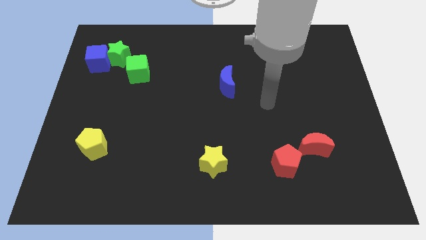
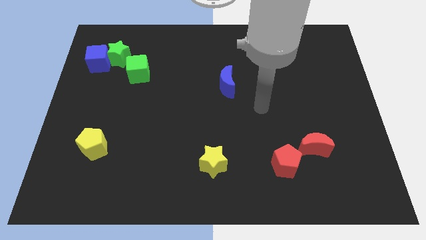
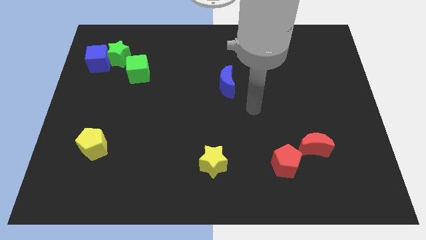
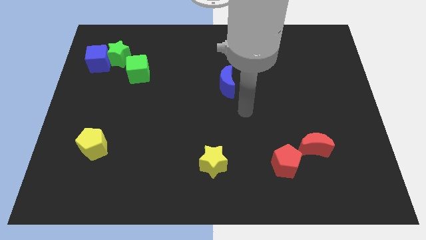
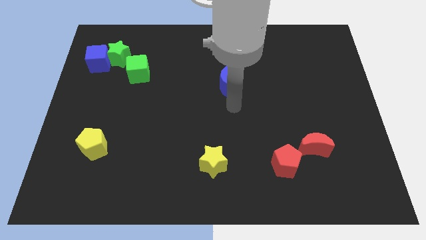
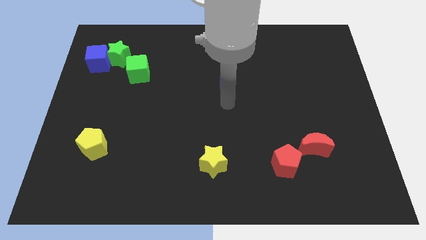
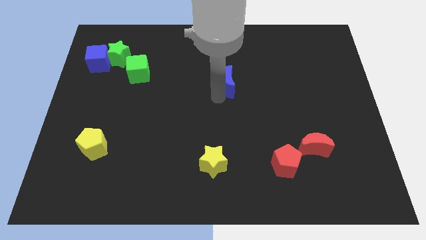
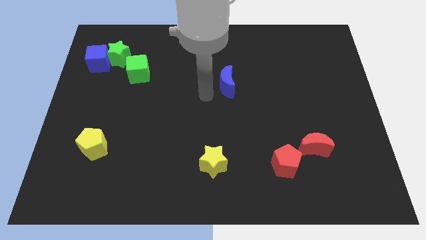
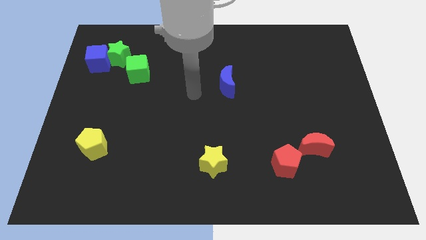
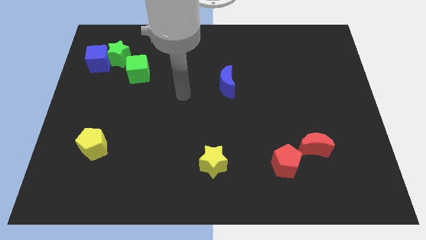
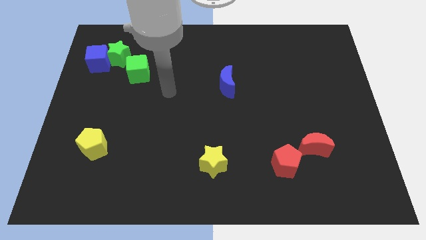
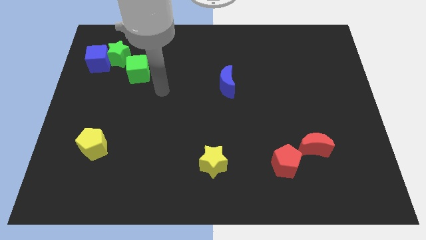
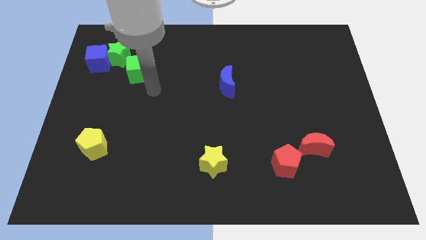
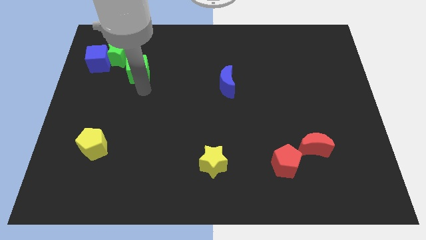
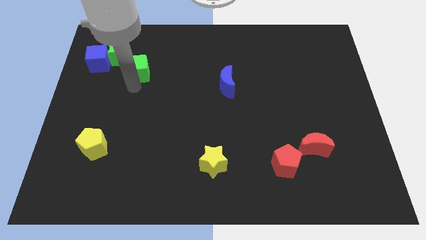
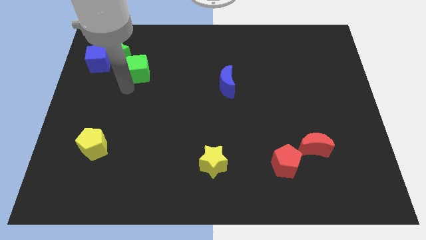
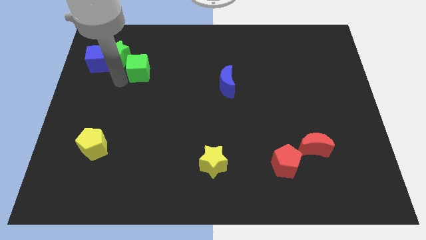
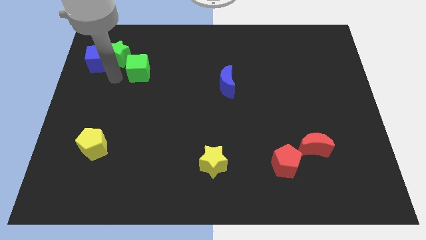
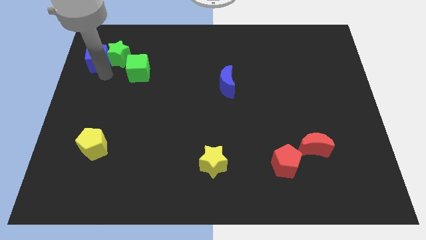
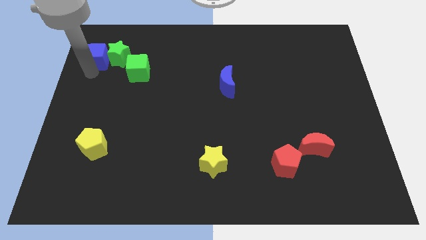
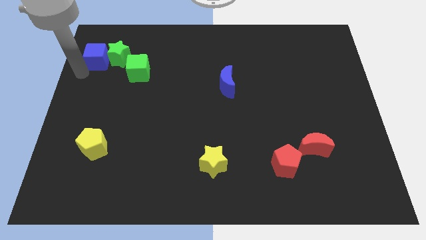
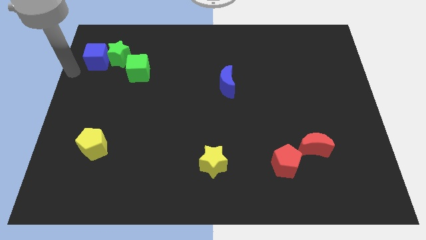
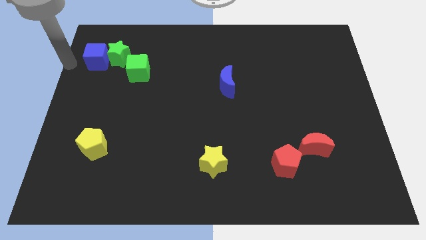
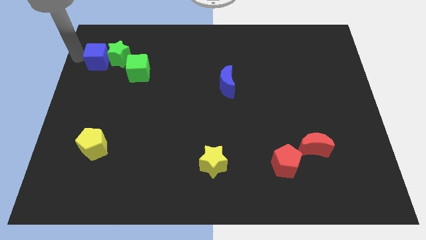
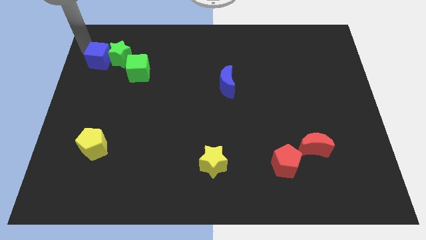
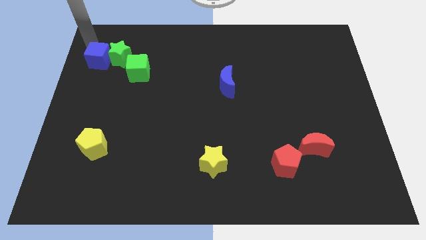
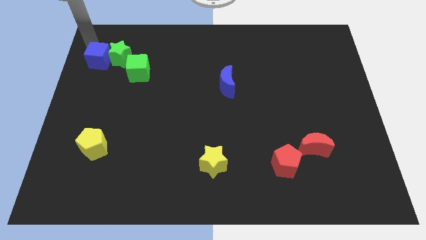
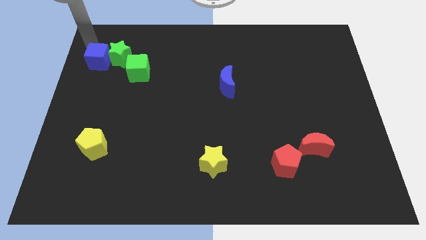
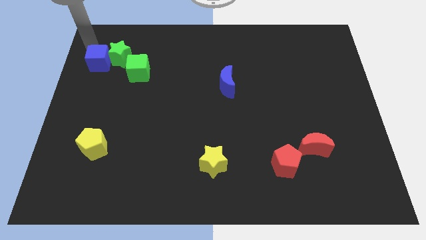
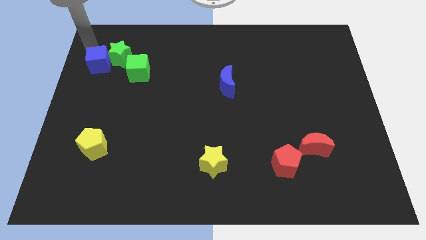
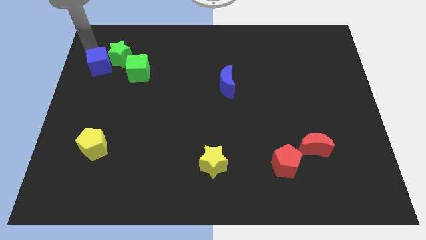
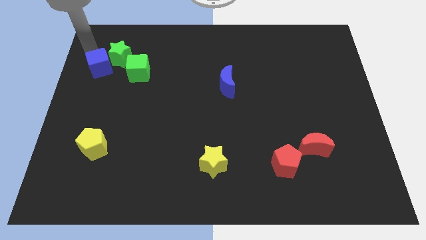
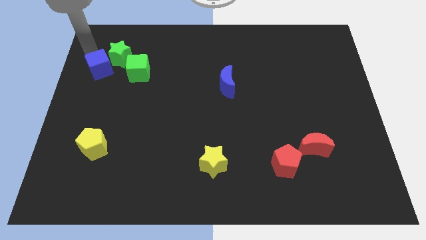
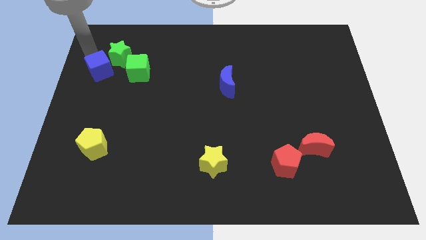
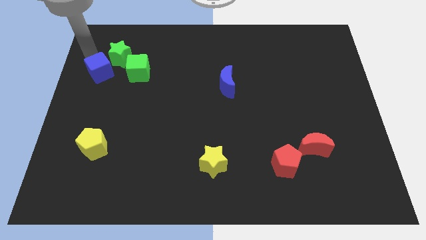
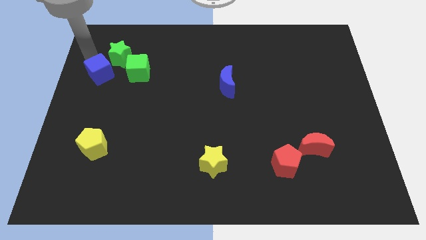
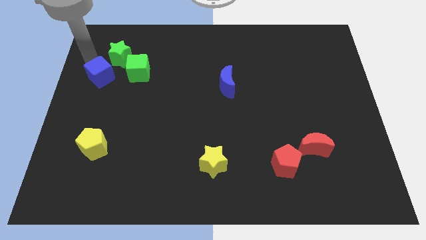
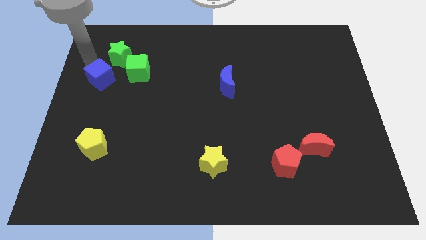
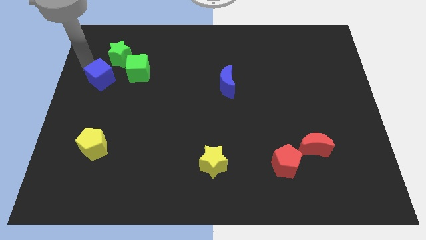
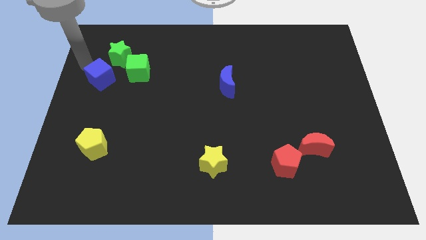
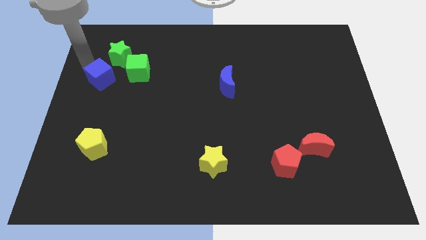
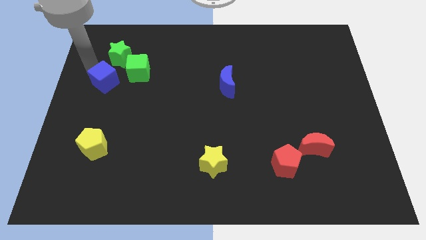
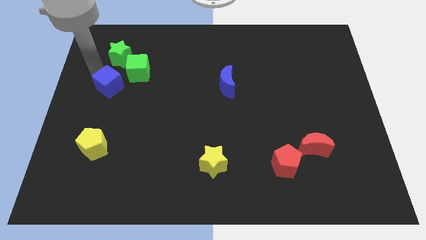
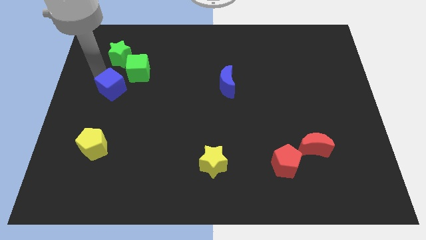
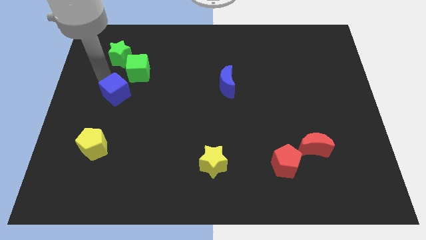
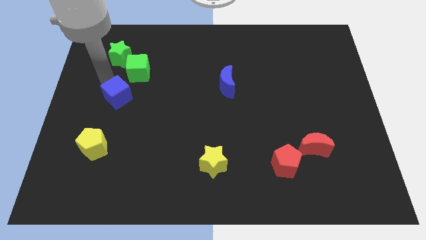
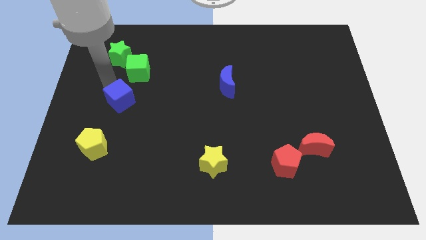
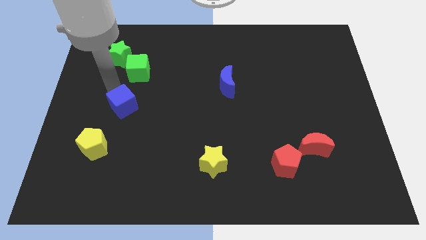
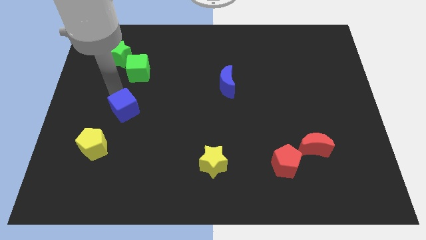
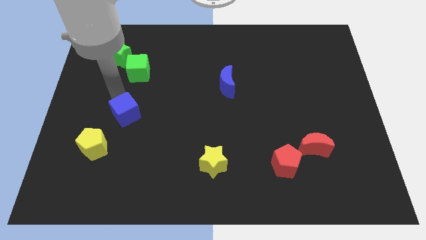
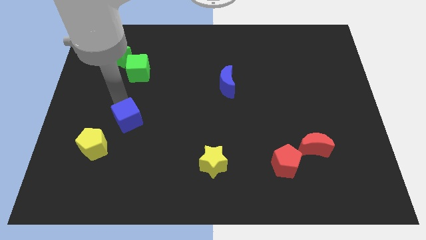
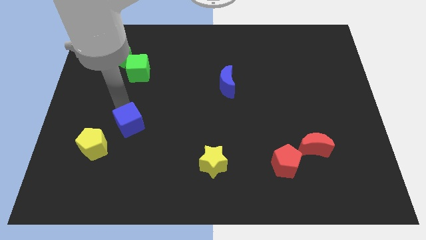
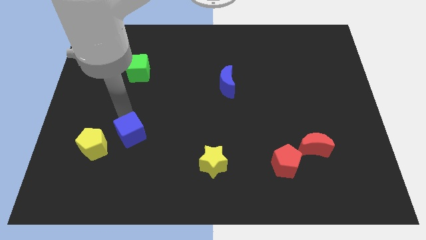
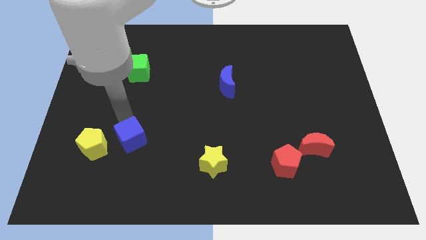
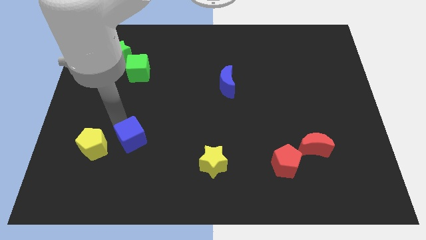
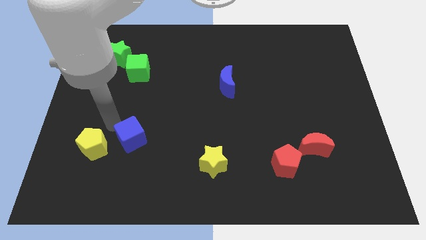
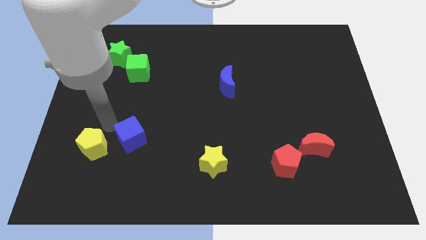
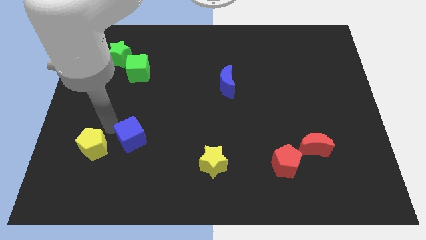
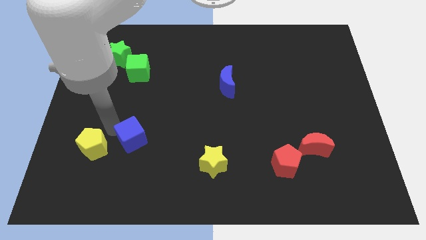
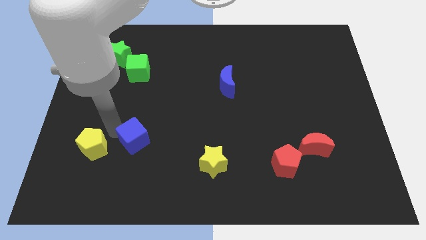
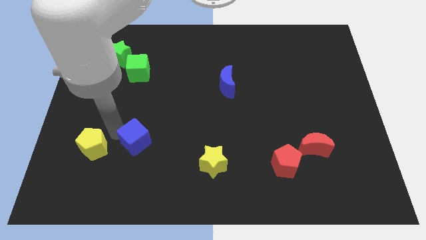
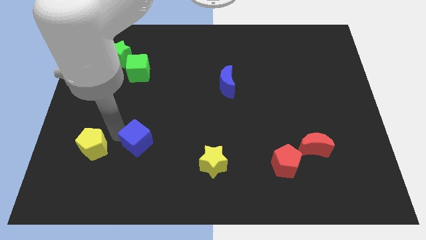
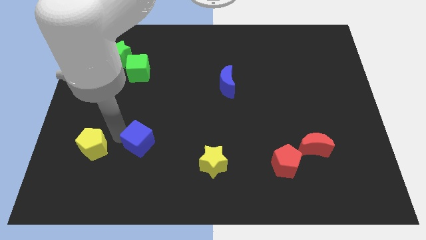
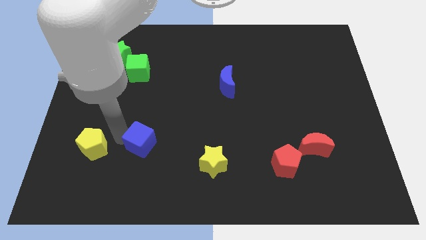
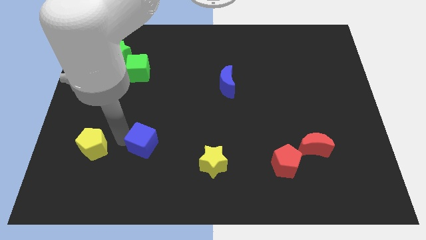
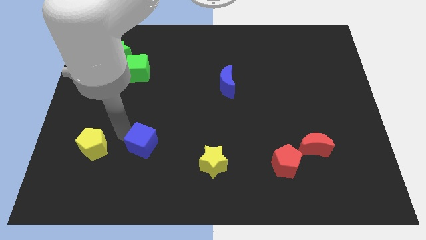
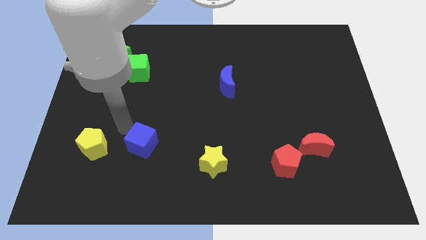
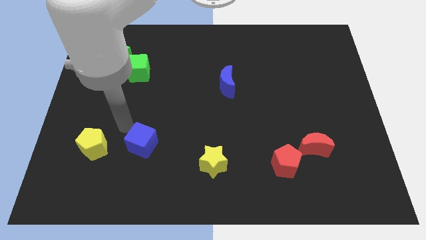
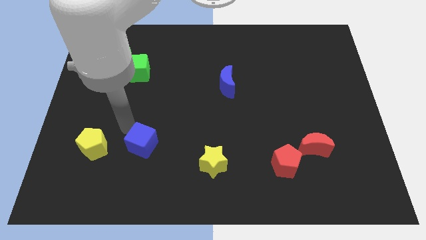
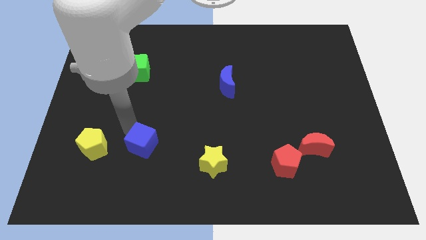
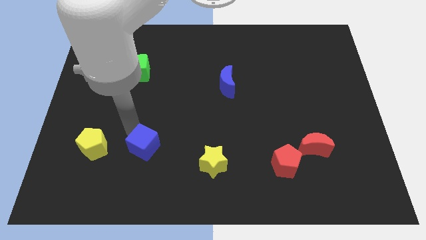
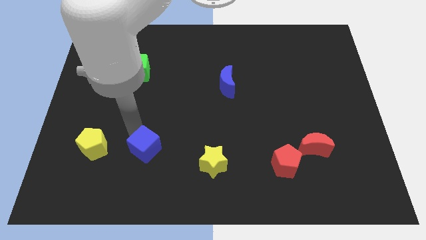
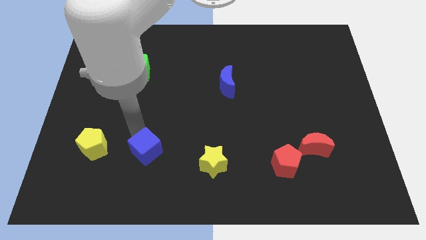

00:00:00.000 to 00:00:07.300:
push the blue cube just left of the yellow star

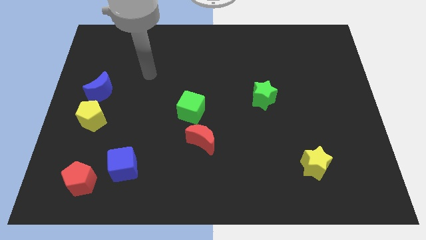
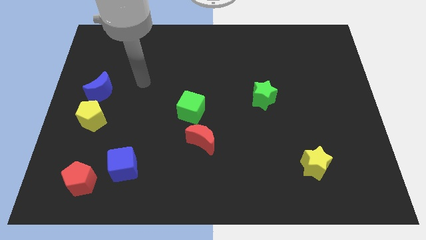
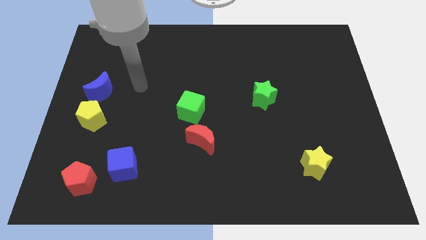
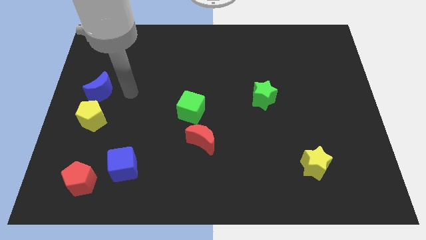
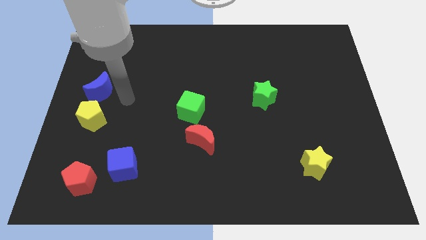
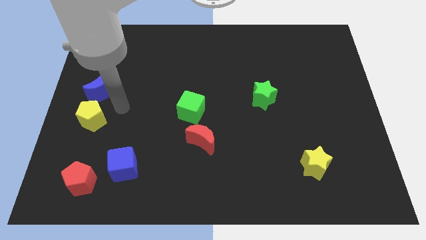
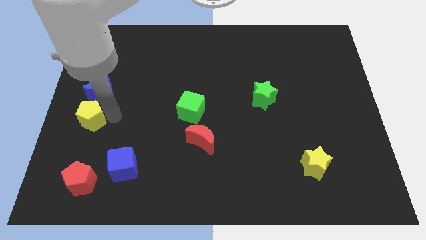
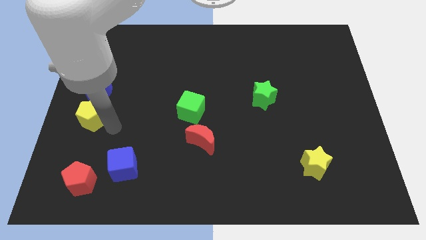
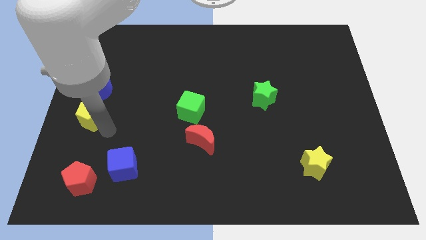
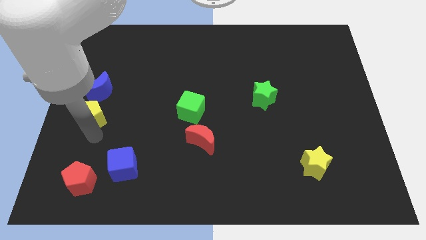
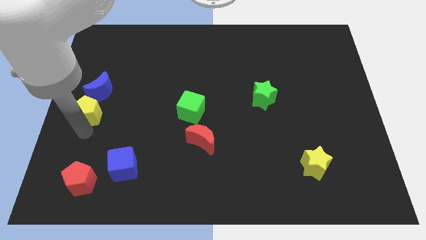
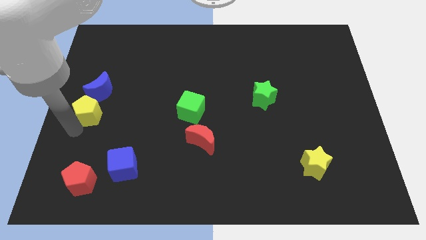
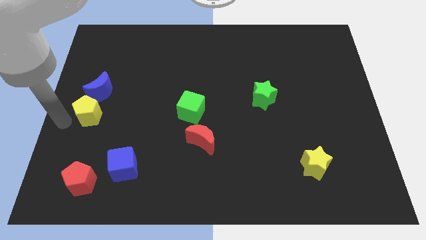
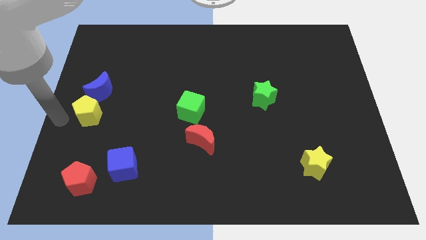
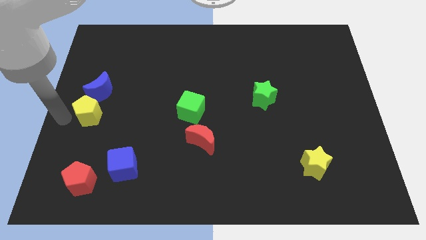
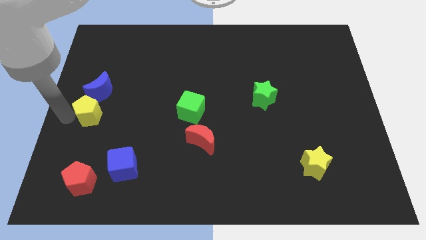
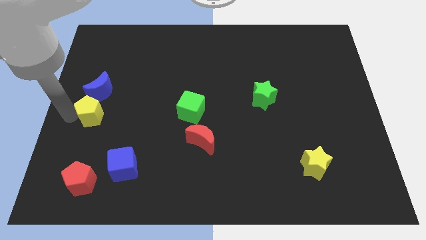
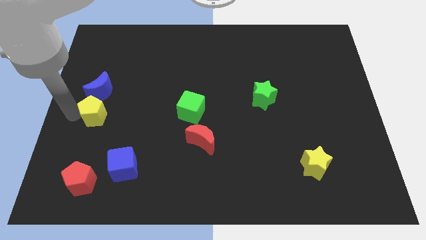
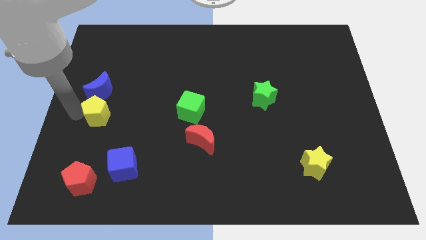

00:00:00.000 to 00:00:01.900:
push the yellow pentagon diagonally down and to the right of the blue moon
